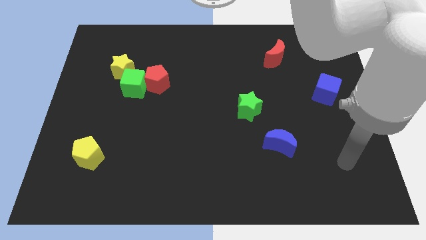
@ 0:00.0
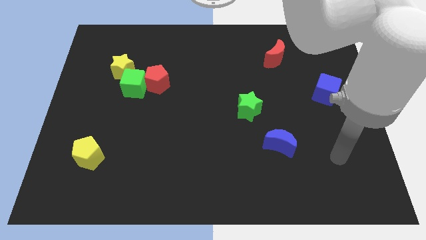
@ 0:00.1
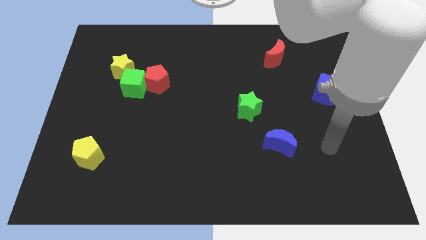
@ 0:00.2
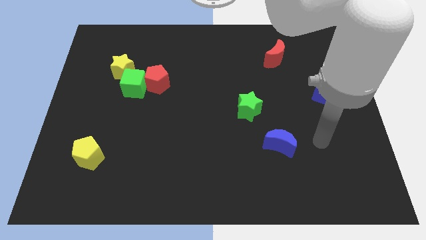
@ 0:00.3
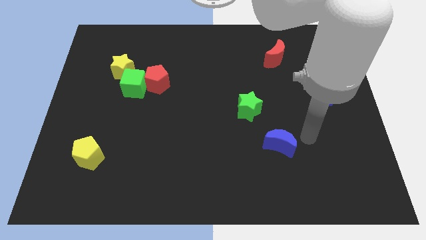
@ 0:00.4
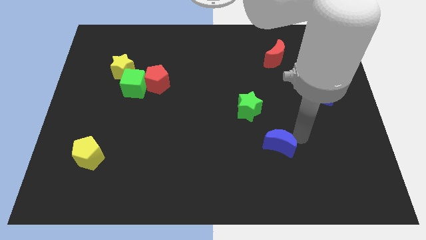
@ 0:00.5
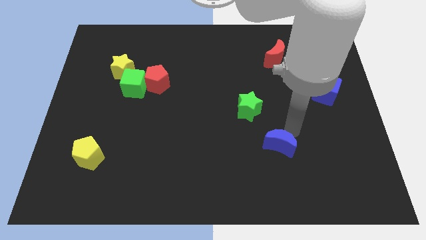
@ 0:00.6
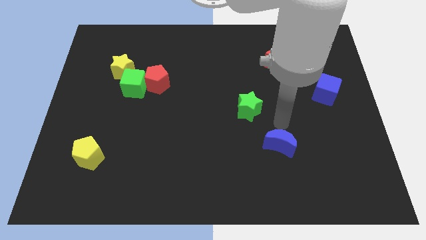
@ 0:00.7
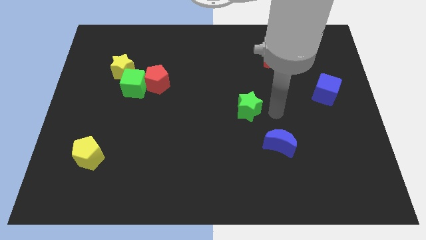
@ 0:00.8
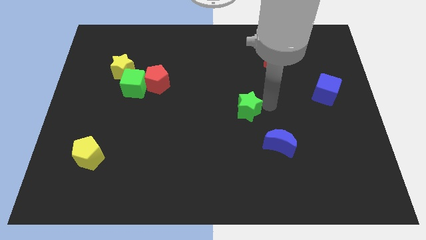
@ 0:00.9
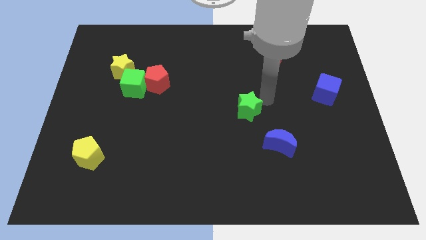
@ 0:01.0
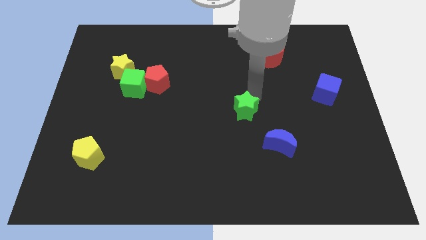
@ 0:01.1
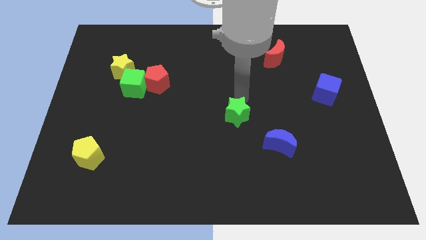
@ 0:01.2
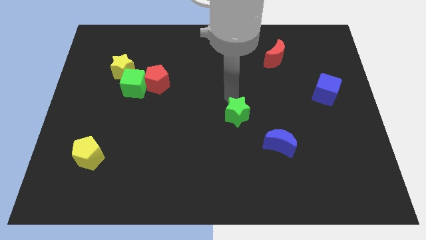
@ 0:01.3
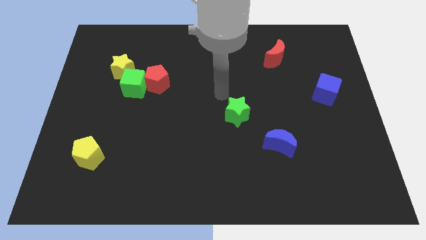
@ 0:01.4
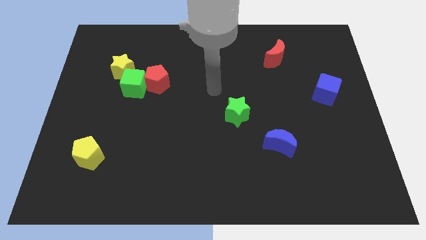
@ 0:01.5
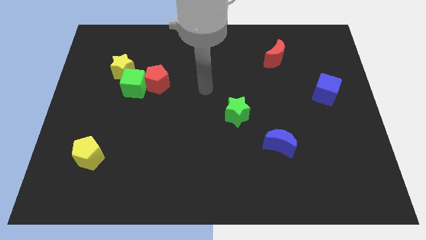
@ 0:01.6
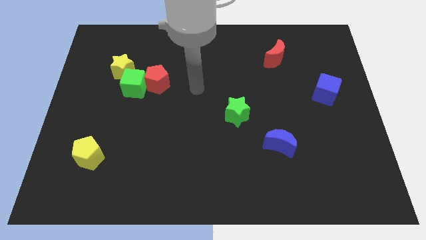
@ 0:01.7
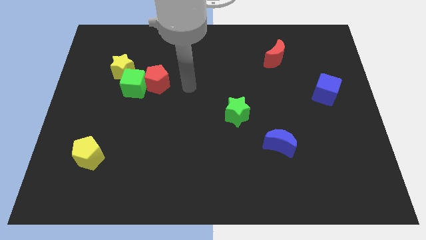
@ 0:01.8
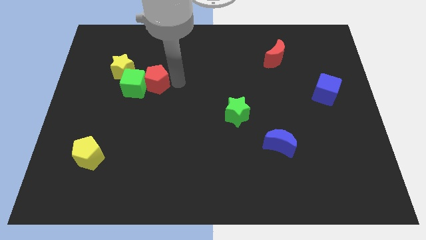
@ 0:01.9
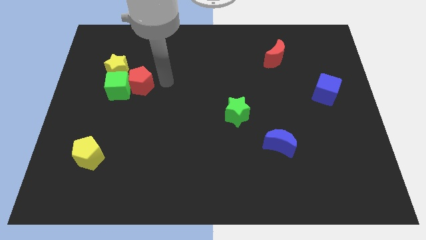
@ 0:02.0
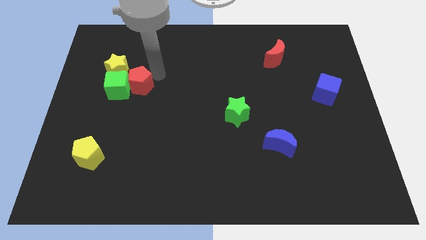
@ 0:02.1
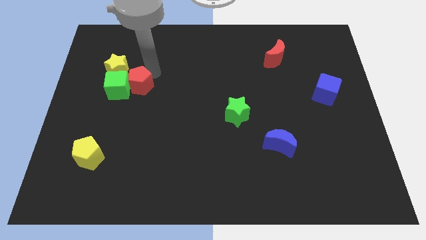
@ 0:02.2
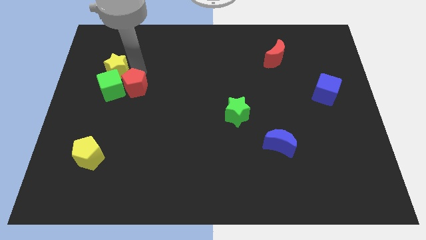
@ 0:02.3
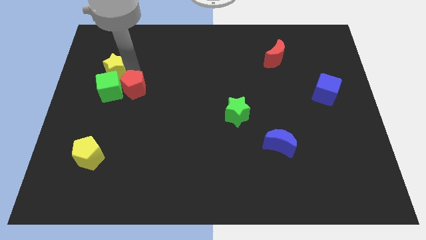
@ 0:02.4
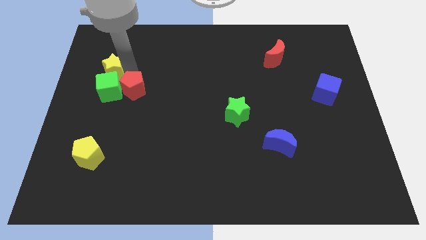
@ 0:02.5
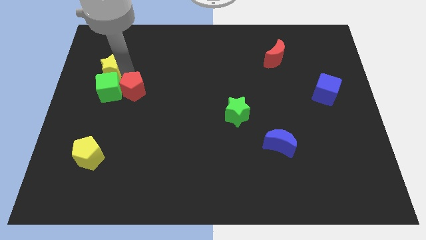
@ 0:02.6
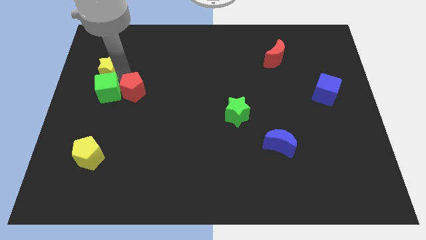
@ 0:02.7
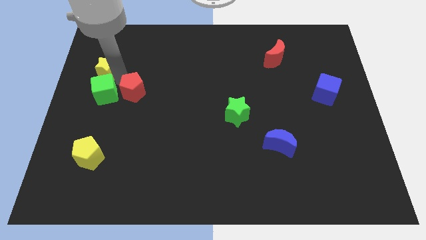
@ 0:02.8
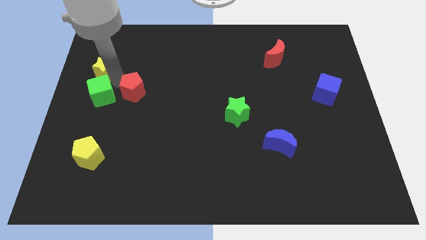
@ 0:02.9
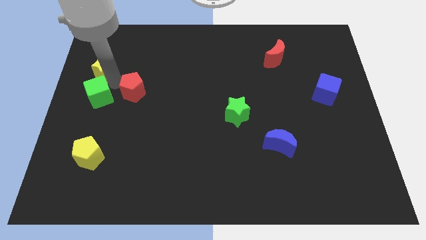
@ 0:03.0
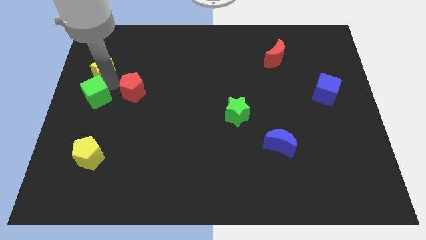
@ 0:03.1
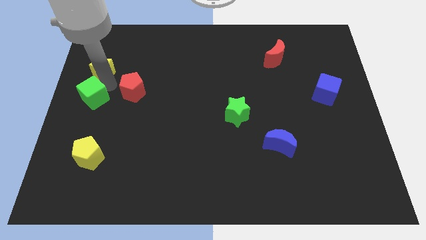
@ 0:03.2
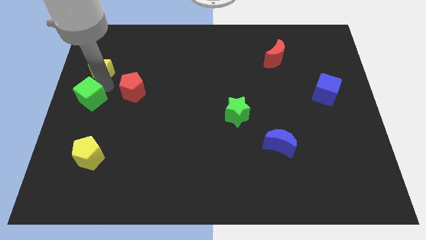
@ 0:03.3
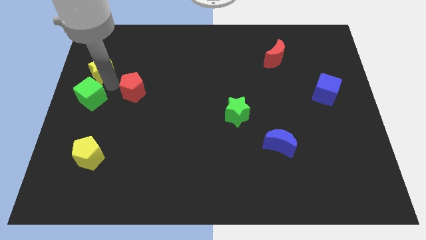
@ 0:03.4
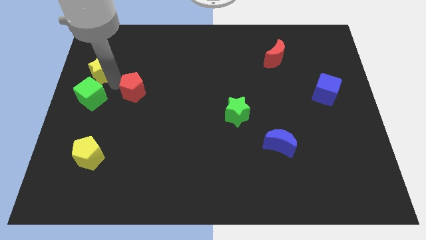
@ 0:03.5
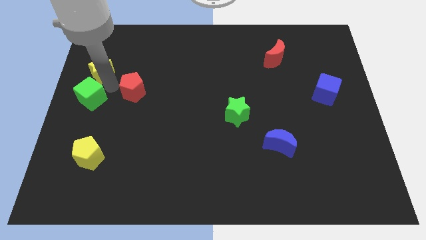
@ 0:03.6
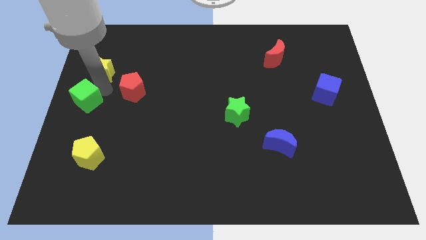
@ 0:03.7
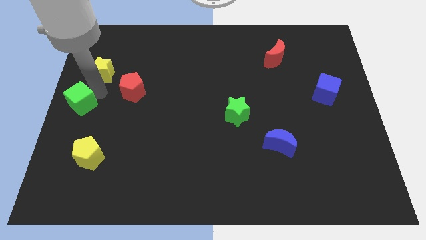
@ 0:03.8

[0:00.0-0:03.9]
separate the green cube from the red pentagon and yellow star

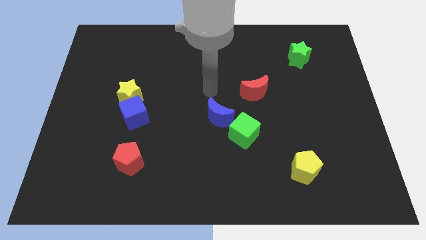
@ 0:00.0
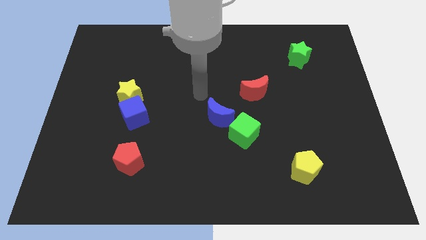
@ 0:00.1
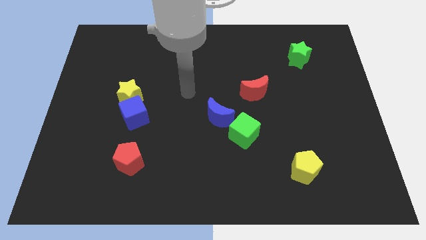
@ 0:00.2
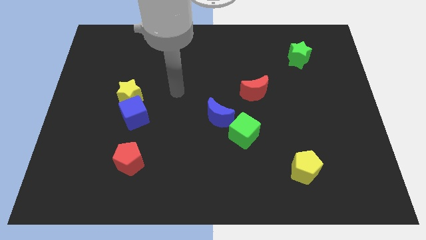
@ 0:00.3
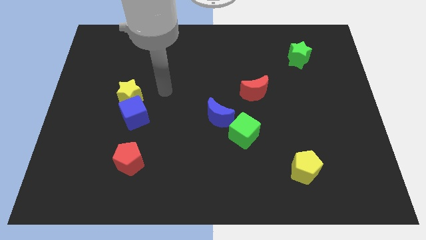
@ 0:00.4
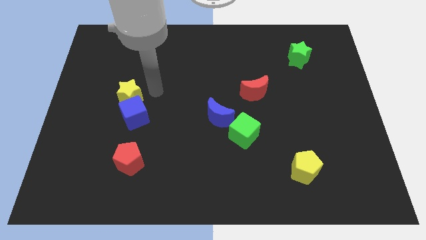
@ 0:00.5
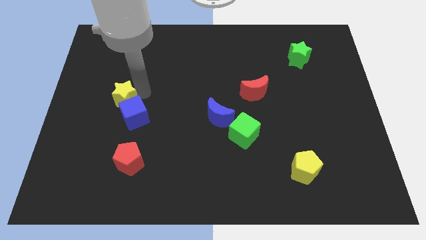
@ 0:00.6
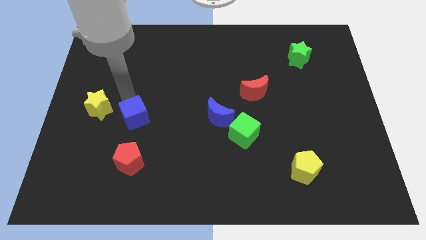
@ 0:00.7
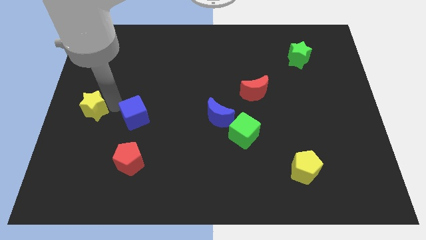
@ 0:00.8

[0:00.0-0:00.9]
pull the blue cube apart from the yellow star

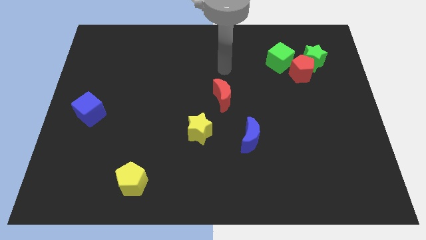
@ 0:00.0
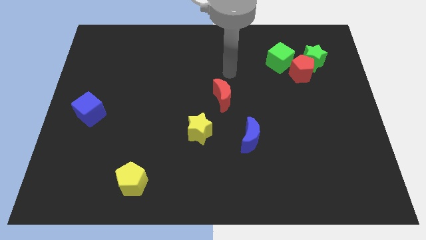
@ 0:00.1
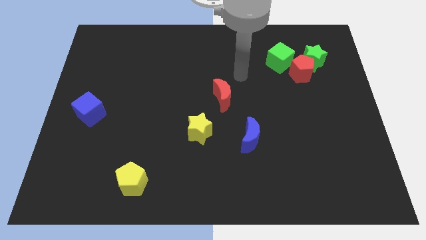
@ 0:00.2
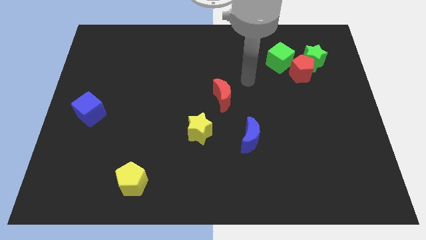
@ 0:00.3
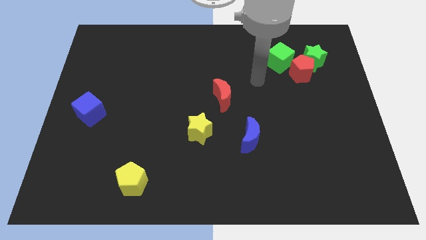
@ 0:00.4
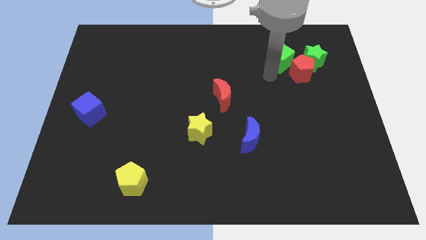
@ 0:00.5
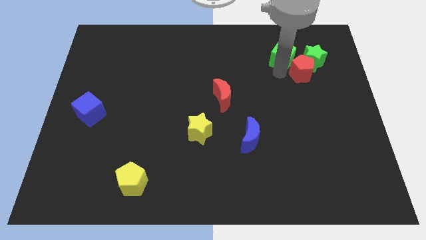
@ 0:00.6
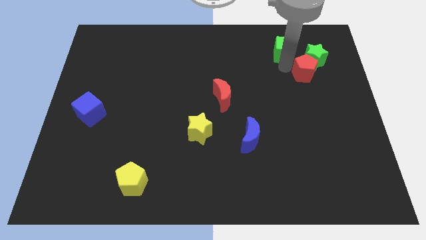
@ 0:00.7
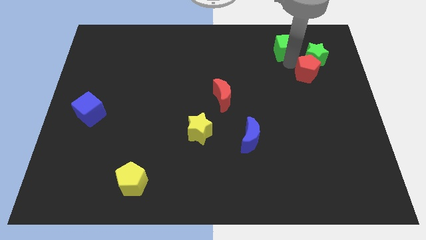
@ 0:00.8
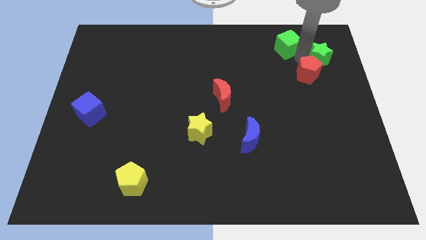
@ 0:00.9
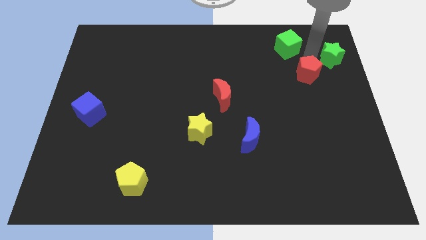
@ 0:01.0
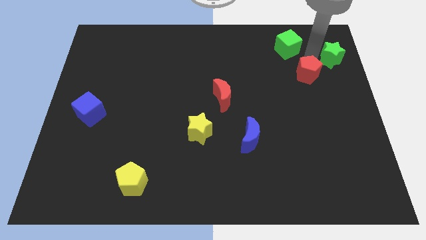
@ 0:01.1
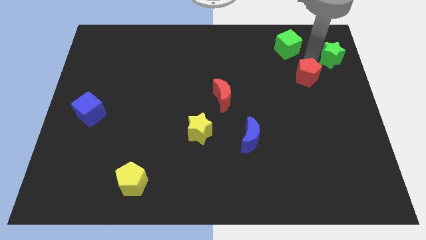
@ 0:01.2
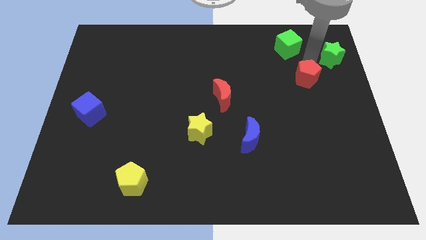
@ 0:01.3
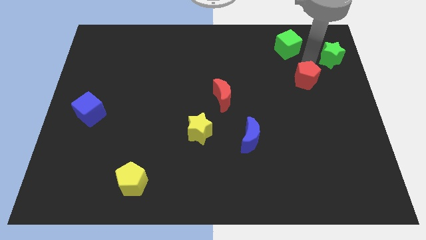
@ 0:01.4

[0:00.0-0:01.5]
pull the red pentagon apart from the green star and green cube

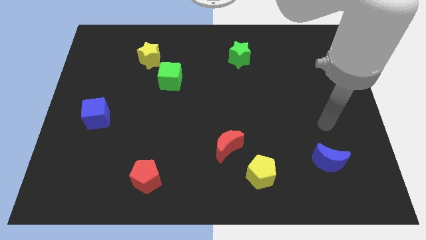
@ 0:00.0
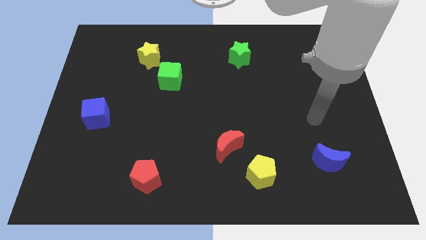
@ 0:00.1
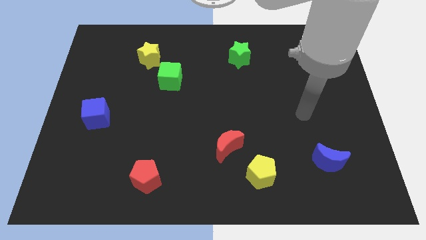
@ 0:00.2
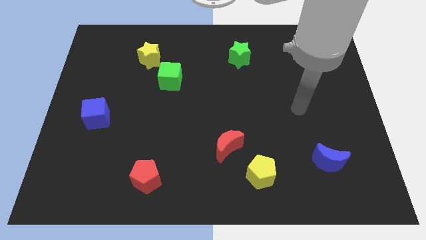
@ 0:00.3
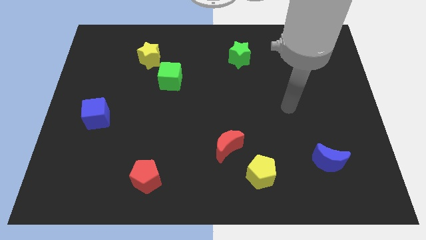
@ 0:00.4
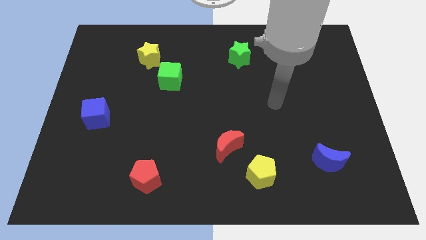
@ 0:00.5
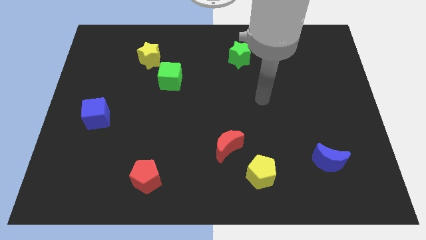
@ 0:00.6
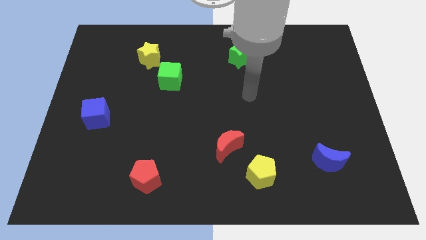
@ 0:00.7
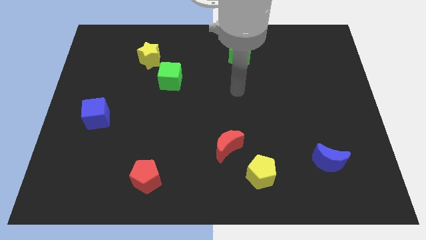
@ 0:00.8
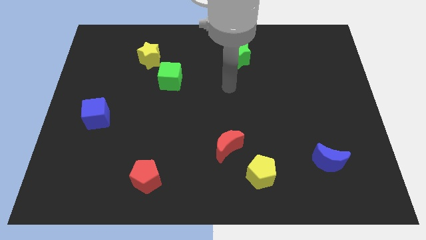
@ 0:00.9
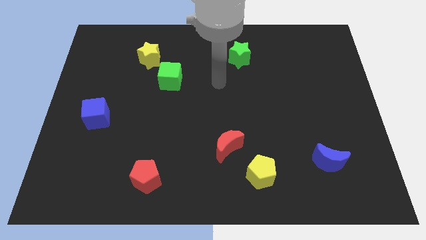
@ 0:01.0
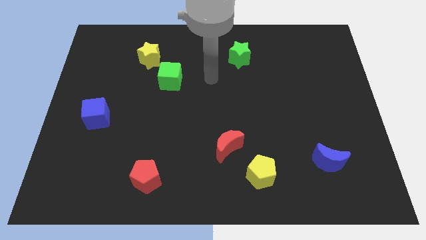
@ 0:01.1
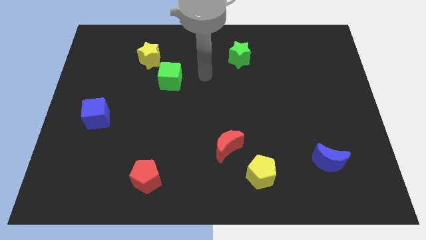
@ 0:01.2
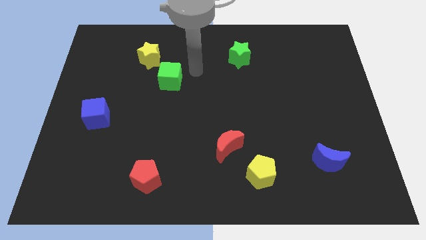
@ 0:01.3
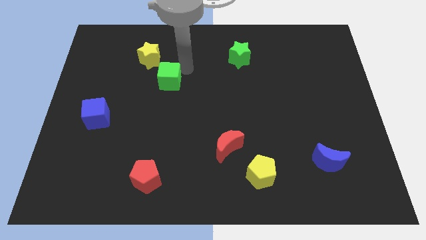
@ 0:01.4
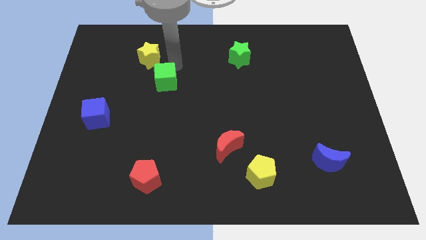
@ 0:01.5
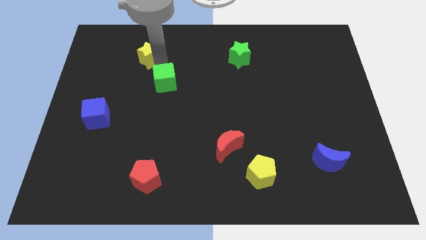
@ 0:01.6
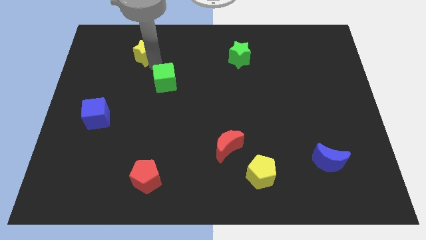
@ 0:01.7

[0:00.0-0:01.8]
separate the green cube from the yellow star

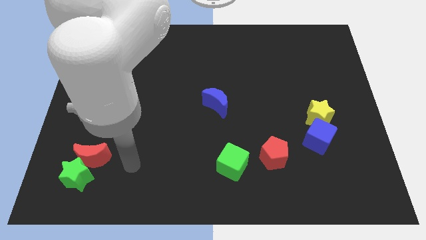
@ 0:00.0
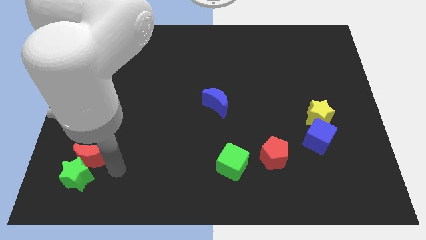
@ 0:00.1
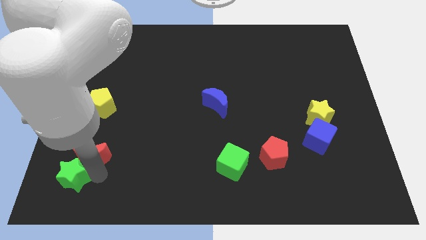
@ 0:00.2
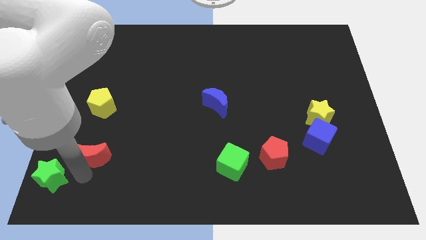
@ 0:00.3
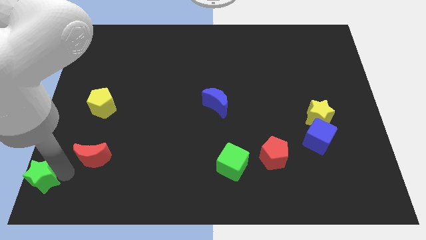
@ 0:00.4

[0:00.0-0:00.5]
separate the red moon from the green star

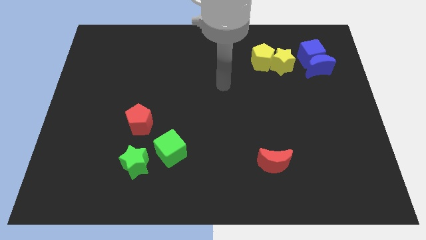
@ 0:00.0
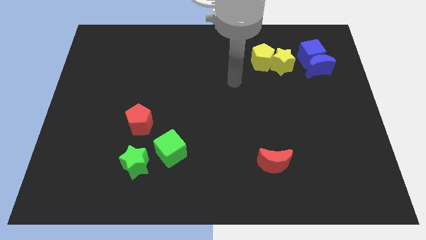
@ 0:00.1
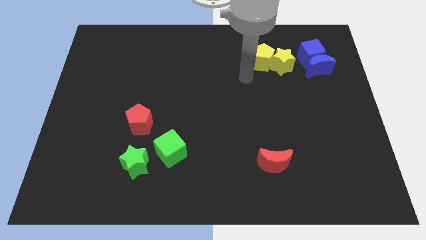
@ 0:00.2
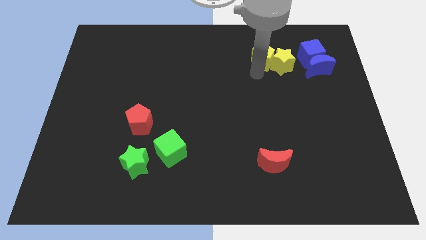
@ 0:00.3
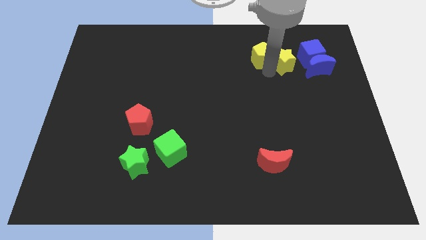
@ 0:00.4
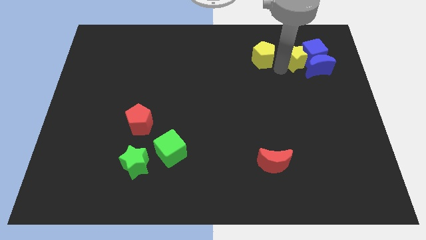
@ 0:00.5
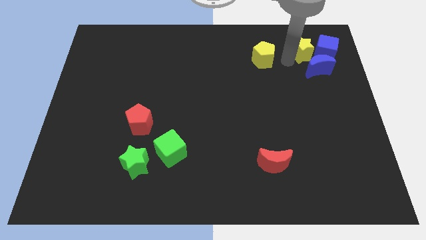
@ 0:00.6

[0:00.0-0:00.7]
move the yellow pentagon away from the yellow star
